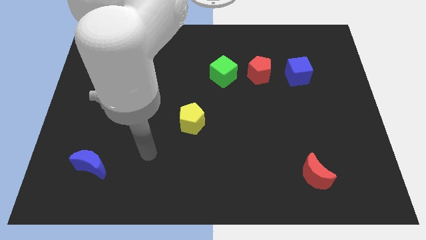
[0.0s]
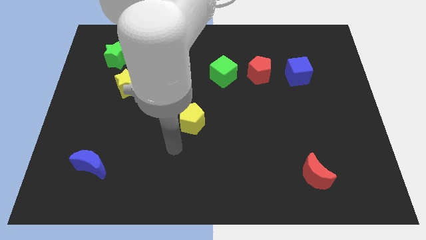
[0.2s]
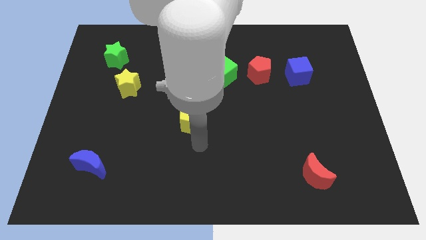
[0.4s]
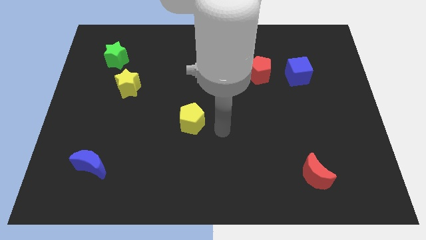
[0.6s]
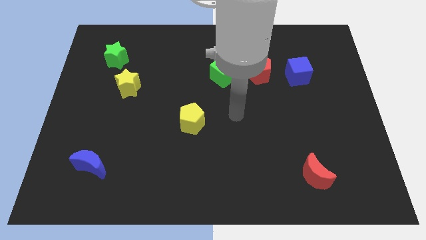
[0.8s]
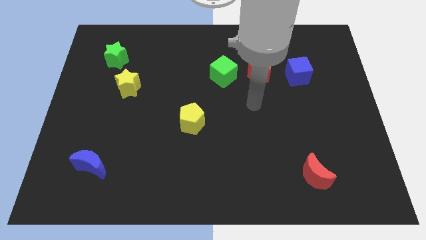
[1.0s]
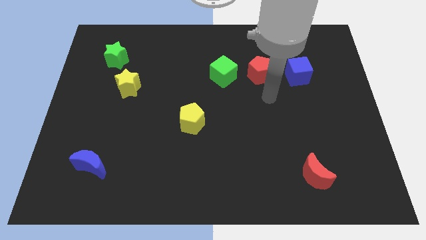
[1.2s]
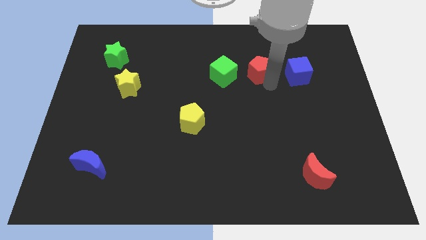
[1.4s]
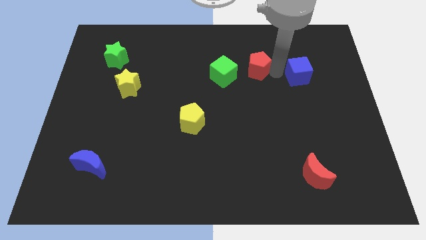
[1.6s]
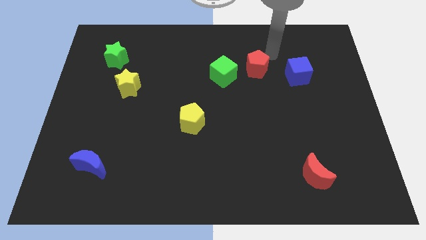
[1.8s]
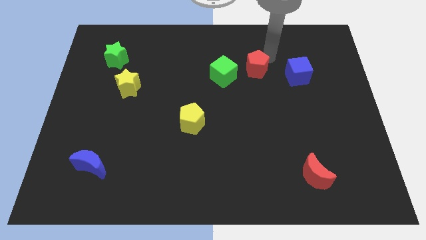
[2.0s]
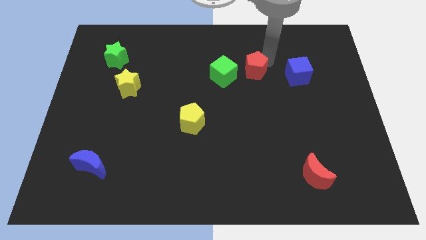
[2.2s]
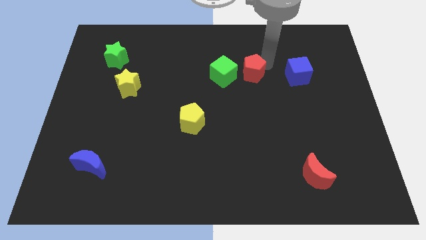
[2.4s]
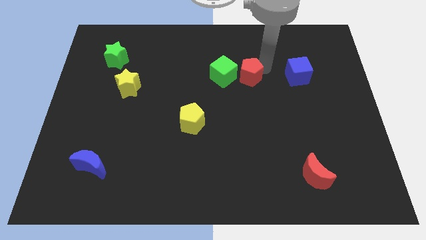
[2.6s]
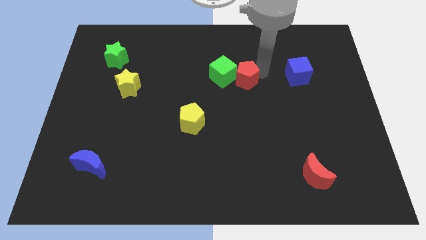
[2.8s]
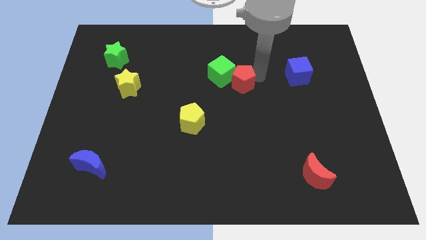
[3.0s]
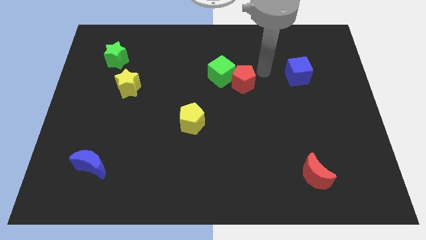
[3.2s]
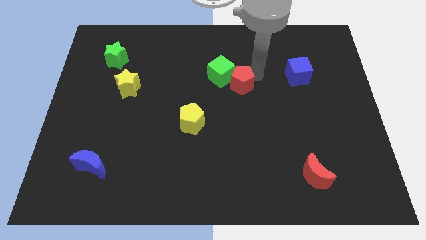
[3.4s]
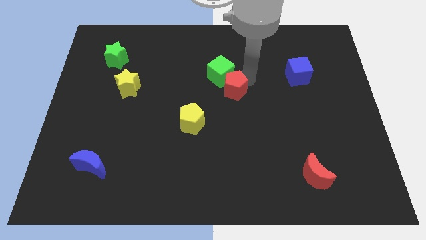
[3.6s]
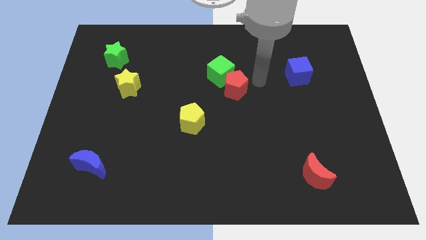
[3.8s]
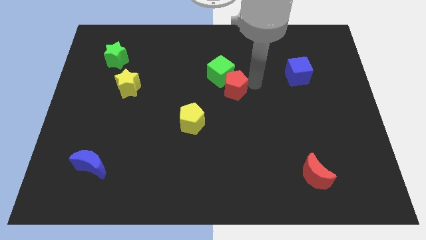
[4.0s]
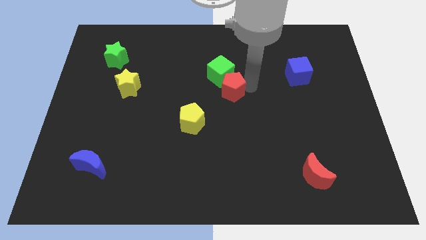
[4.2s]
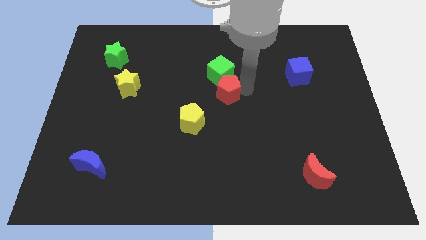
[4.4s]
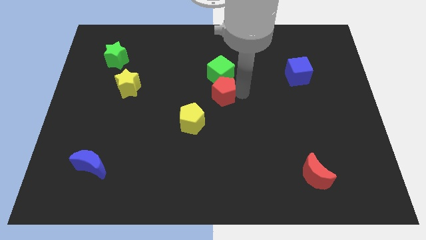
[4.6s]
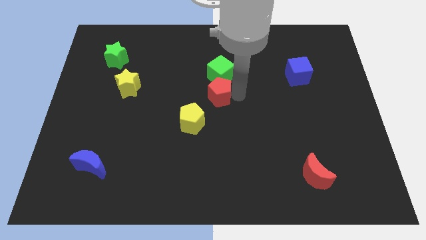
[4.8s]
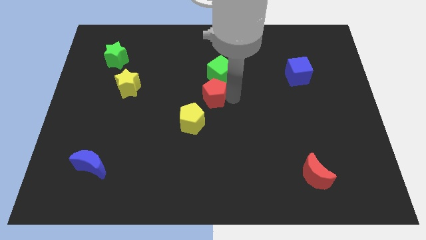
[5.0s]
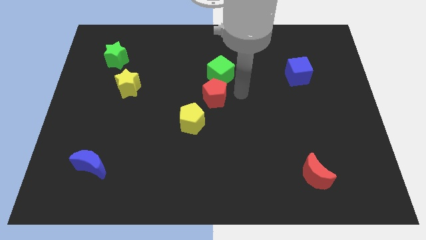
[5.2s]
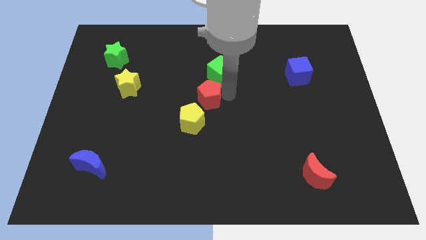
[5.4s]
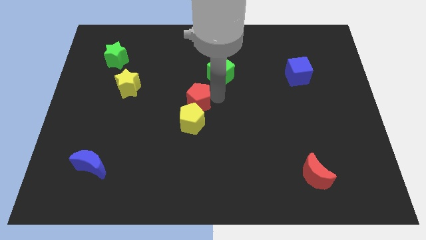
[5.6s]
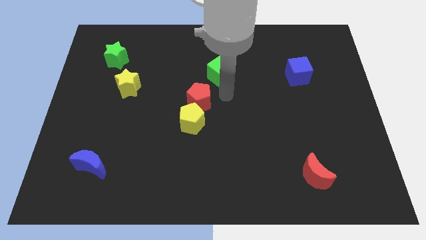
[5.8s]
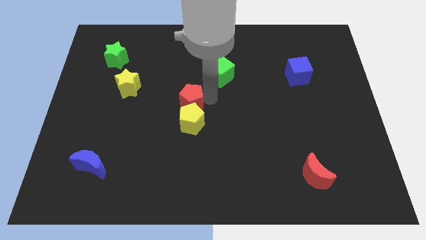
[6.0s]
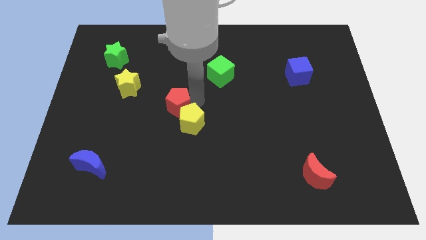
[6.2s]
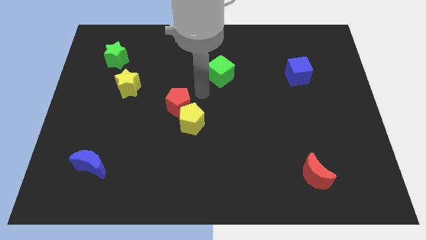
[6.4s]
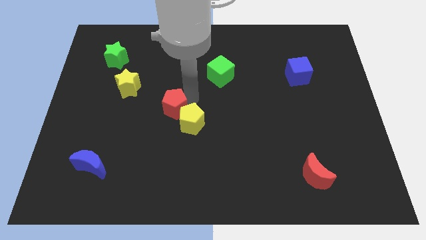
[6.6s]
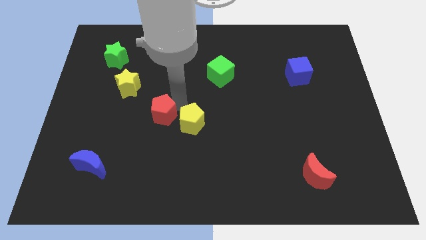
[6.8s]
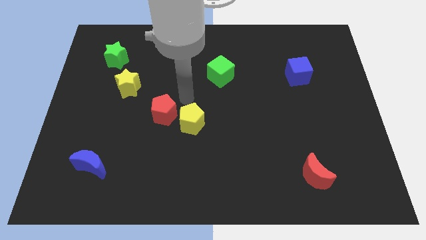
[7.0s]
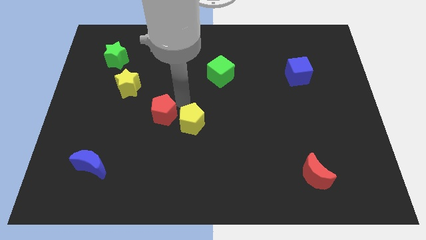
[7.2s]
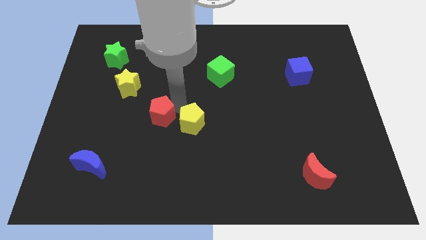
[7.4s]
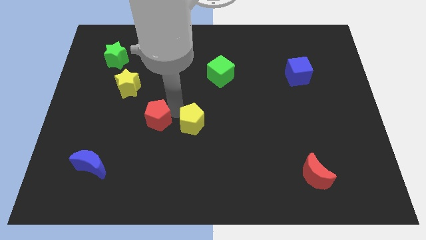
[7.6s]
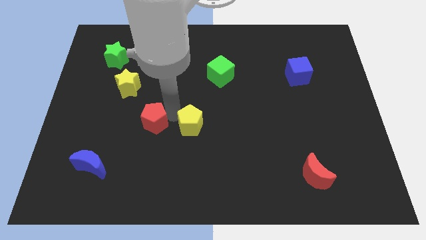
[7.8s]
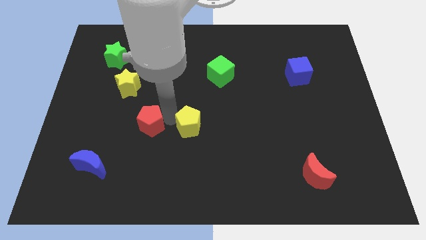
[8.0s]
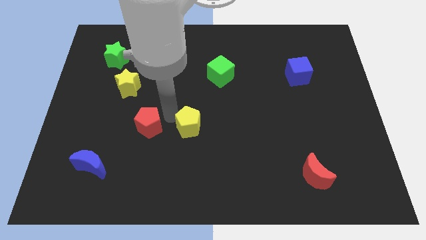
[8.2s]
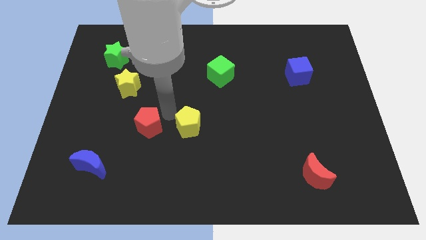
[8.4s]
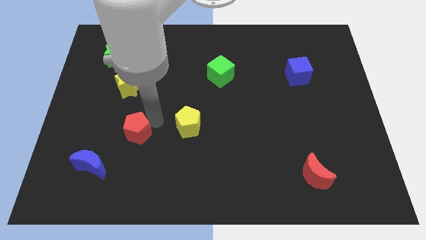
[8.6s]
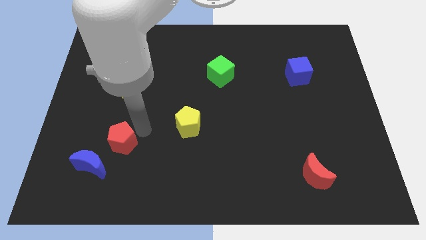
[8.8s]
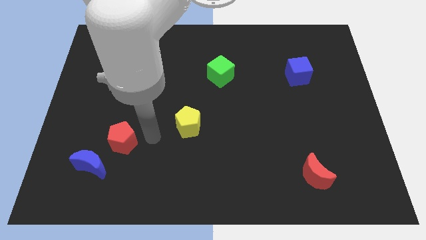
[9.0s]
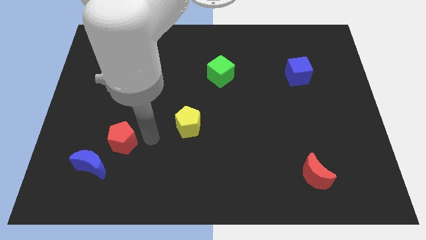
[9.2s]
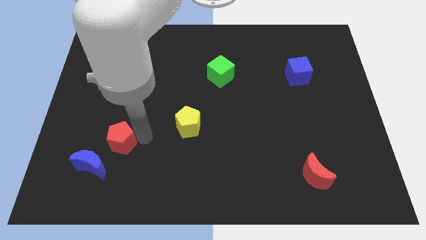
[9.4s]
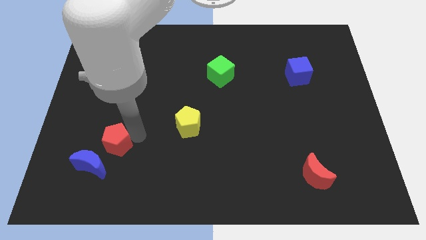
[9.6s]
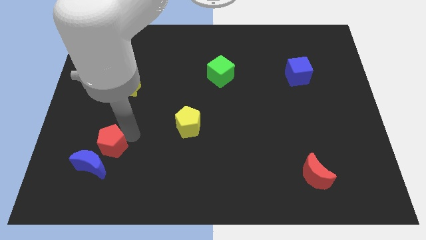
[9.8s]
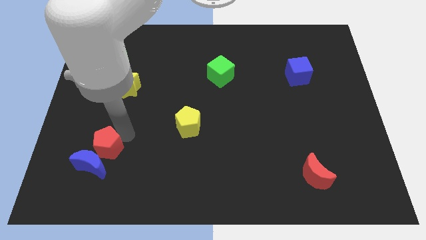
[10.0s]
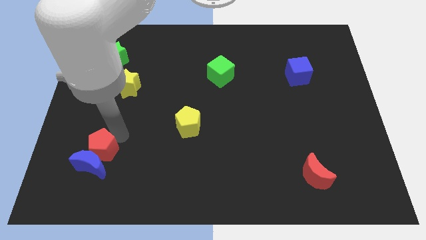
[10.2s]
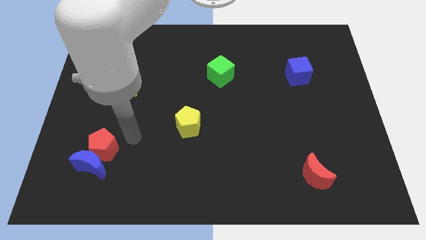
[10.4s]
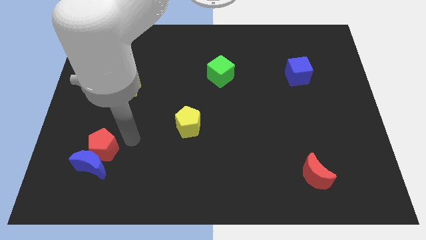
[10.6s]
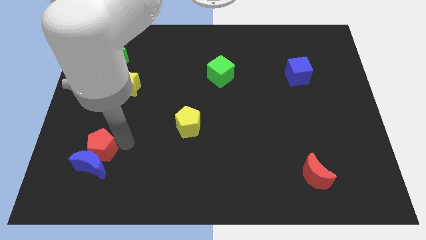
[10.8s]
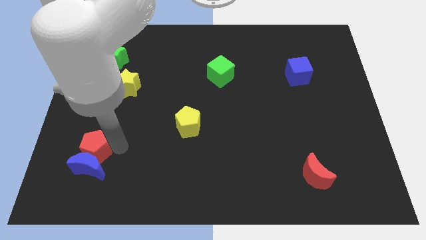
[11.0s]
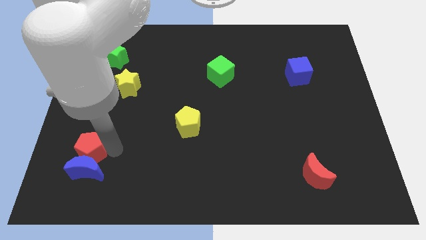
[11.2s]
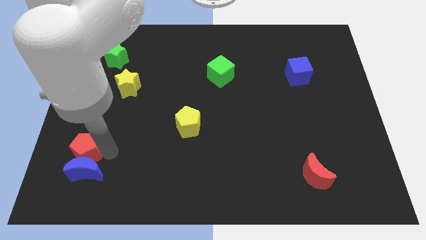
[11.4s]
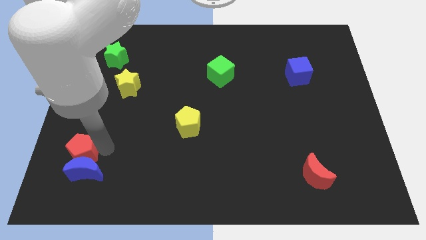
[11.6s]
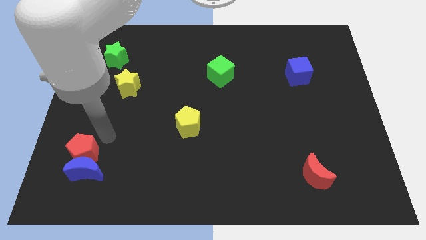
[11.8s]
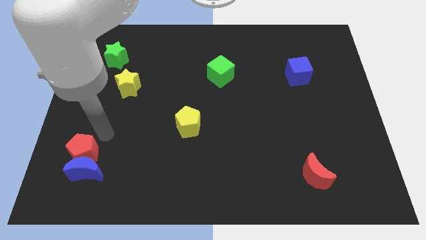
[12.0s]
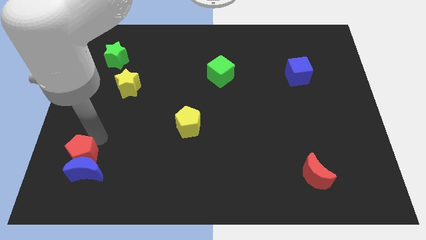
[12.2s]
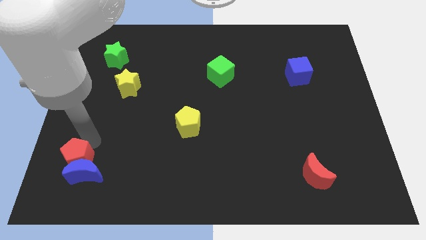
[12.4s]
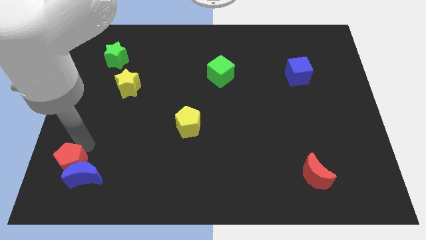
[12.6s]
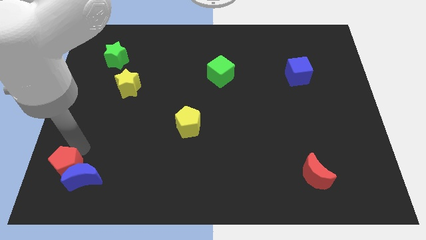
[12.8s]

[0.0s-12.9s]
move the red pentagon to the bottom left of the board
